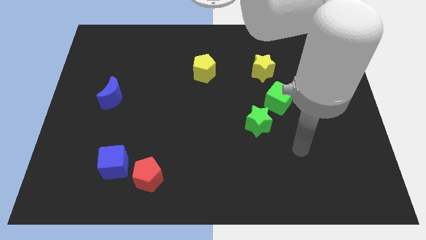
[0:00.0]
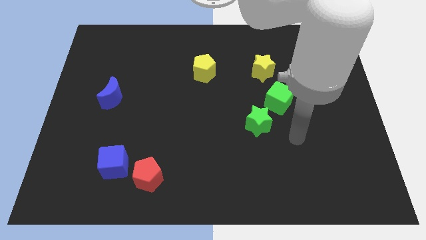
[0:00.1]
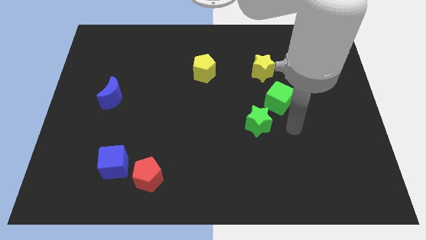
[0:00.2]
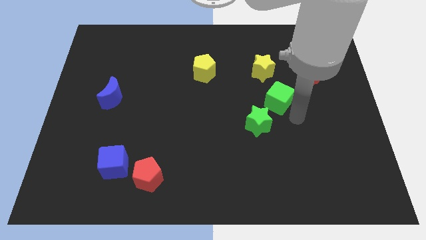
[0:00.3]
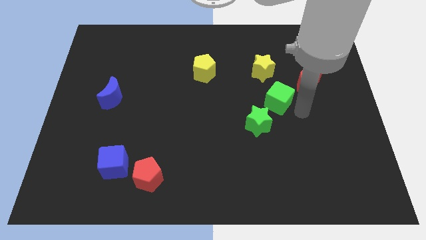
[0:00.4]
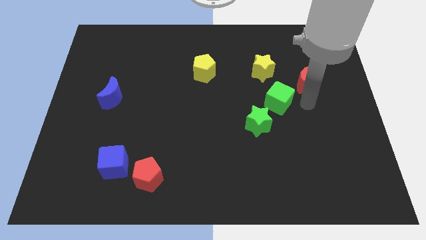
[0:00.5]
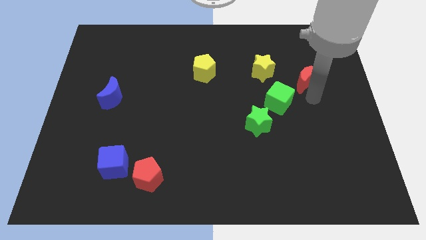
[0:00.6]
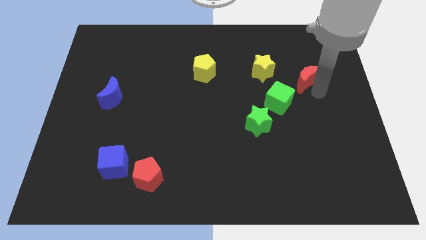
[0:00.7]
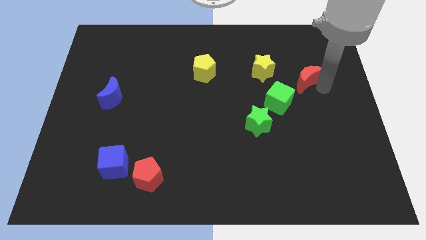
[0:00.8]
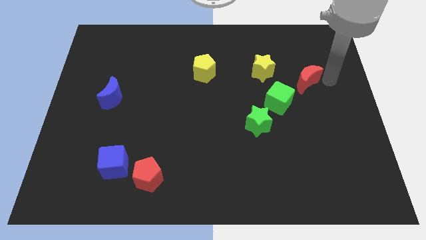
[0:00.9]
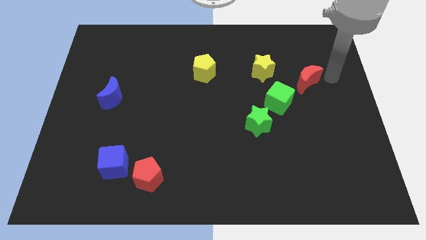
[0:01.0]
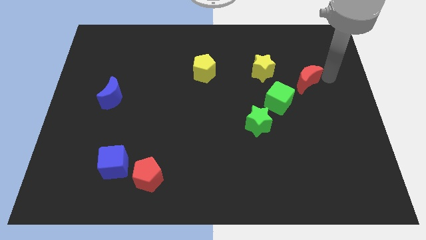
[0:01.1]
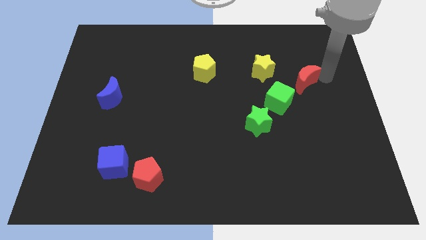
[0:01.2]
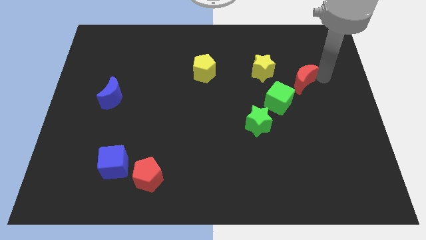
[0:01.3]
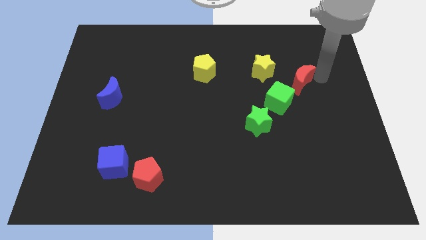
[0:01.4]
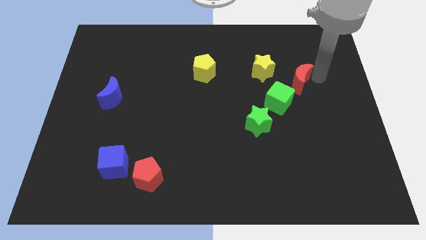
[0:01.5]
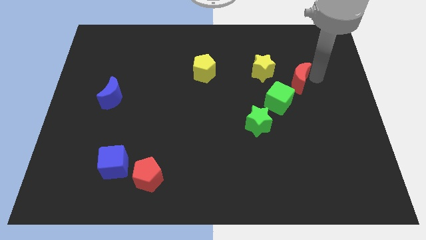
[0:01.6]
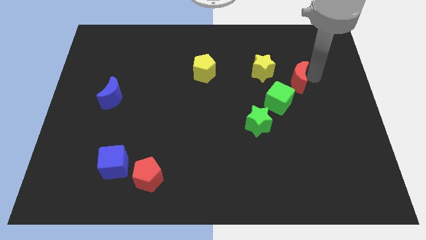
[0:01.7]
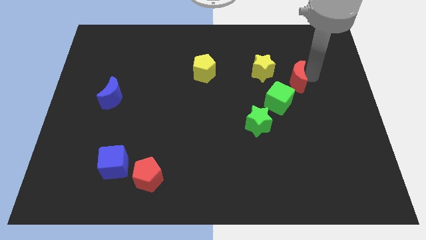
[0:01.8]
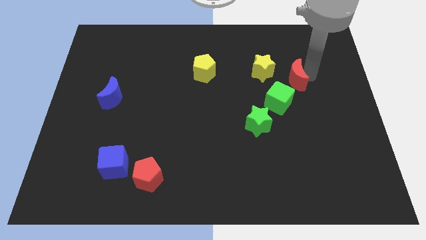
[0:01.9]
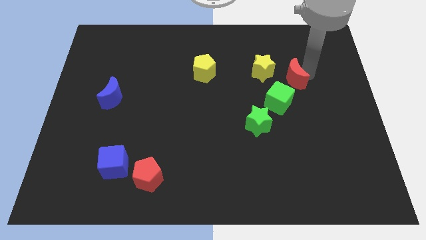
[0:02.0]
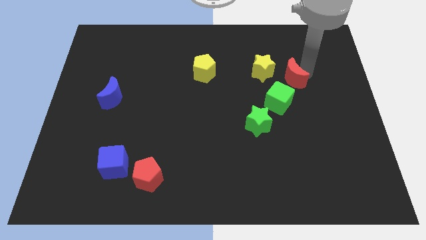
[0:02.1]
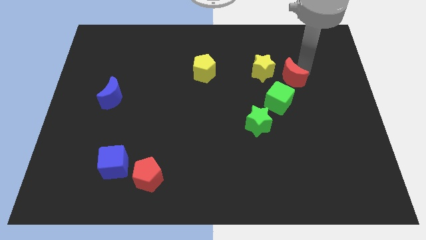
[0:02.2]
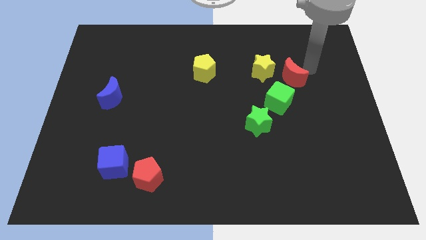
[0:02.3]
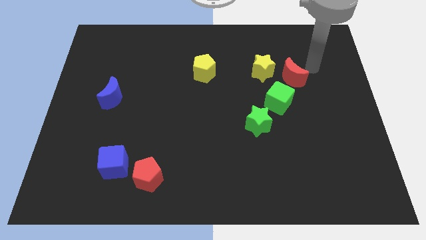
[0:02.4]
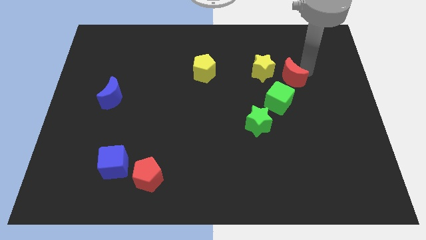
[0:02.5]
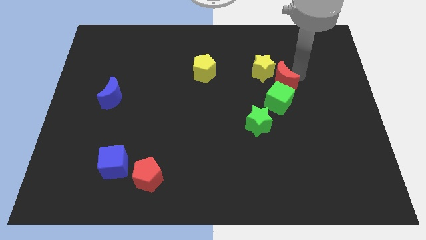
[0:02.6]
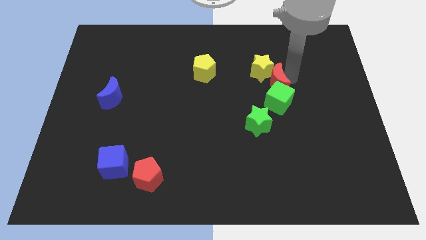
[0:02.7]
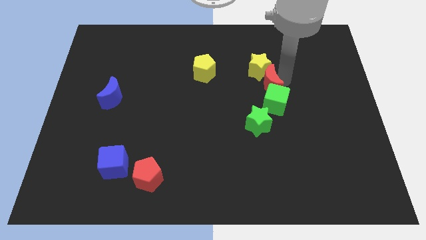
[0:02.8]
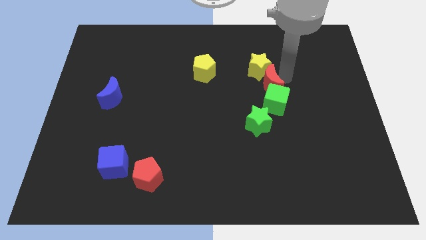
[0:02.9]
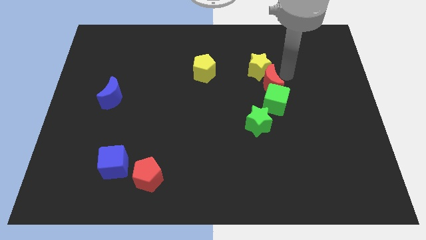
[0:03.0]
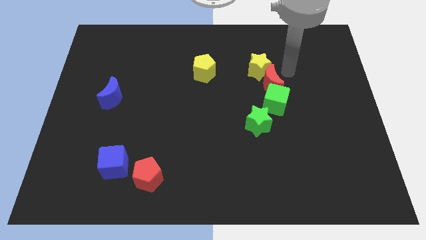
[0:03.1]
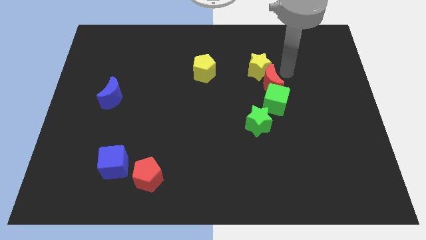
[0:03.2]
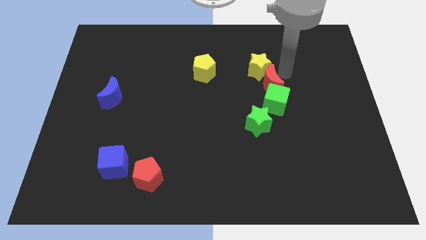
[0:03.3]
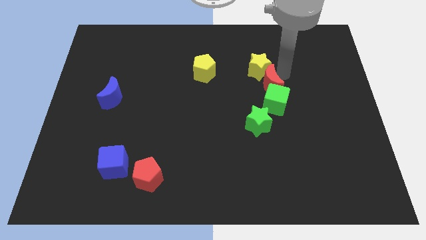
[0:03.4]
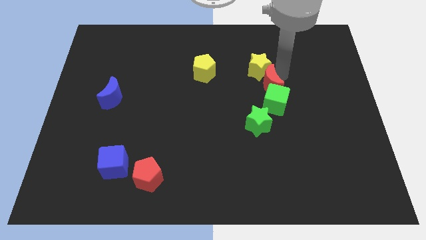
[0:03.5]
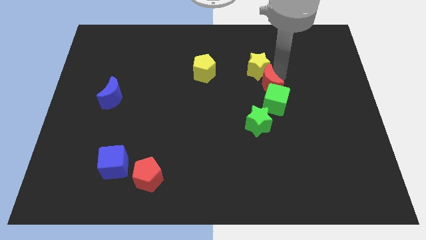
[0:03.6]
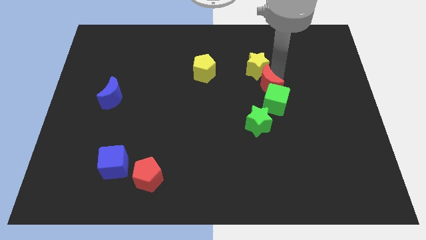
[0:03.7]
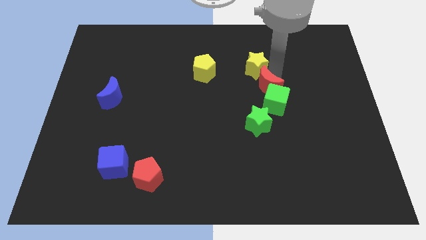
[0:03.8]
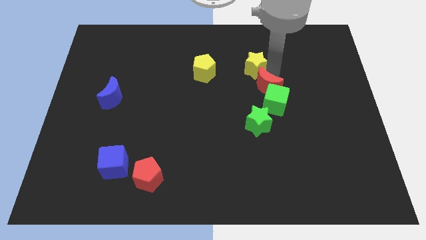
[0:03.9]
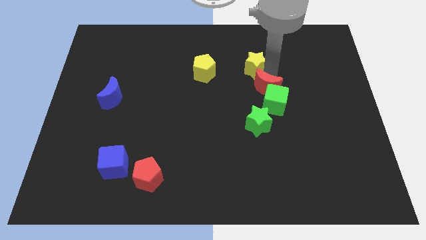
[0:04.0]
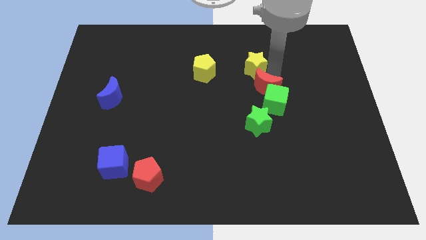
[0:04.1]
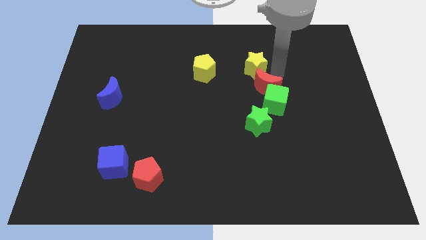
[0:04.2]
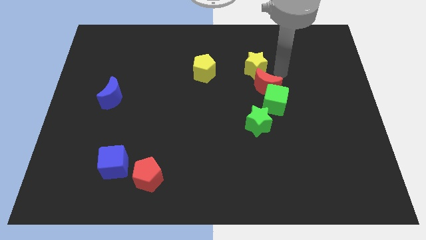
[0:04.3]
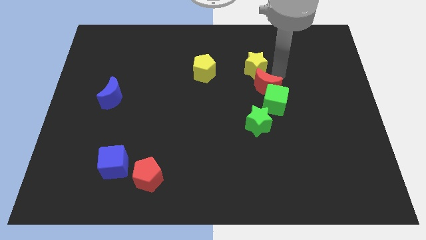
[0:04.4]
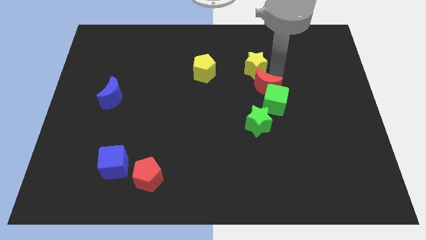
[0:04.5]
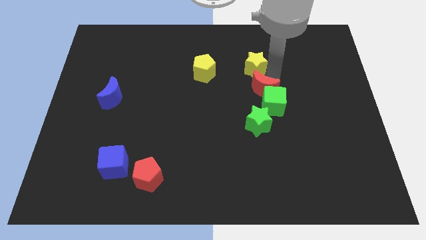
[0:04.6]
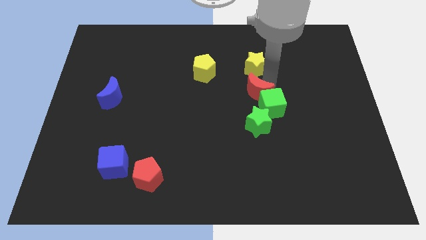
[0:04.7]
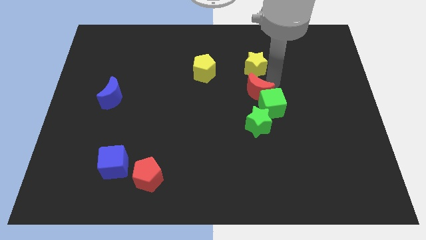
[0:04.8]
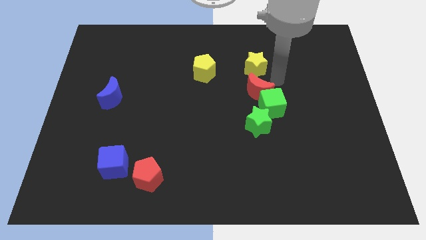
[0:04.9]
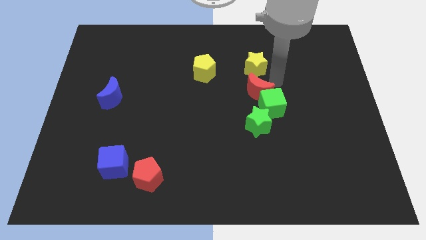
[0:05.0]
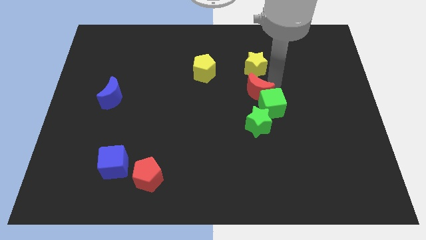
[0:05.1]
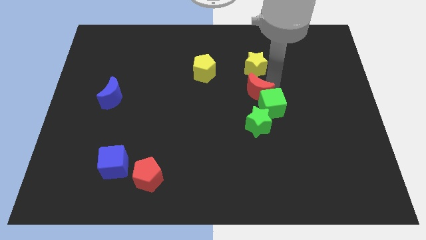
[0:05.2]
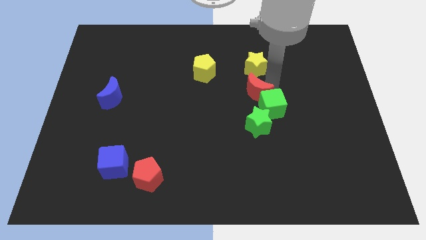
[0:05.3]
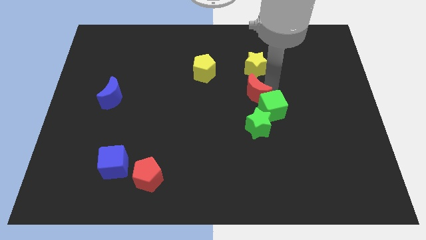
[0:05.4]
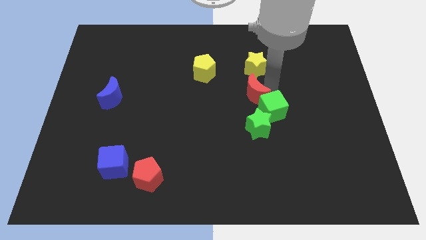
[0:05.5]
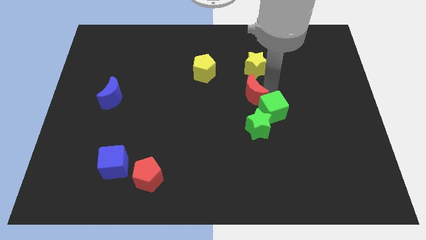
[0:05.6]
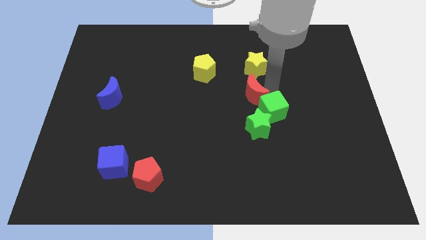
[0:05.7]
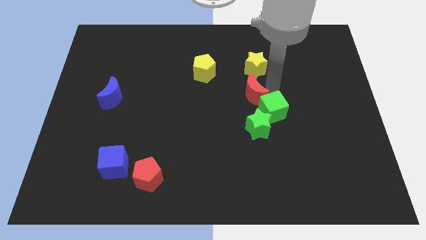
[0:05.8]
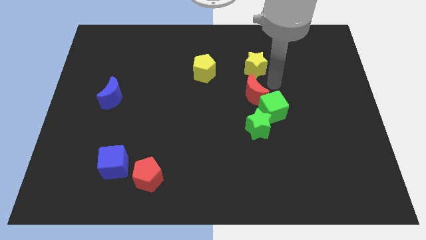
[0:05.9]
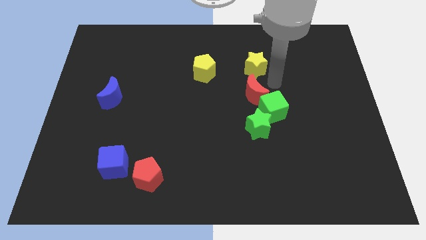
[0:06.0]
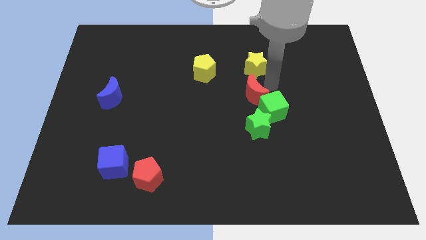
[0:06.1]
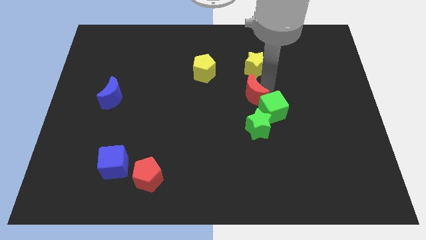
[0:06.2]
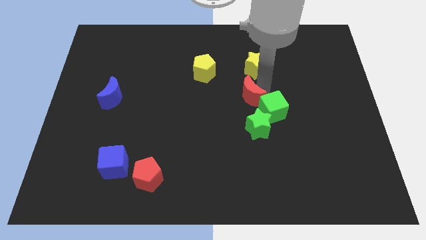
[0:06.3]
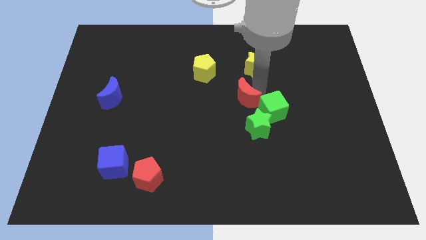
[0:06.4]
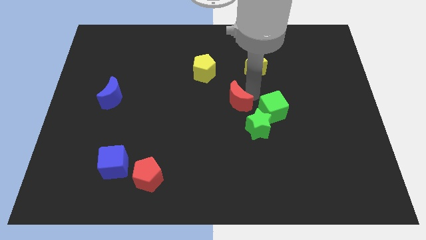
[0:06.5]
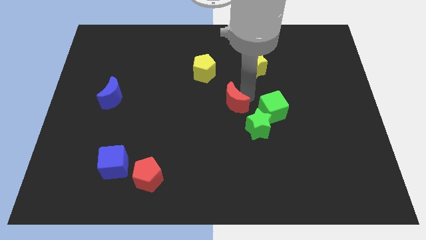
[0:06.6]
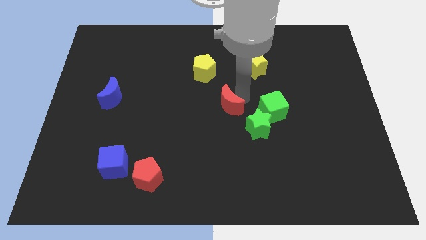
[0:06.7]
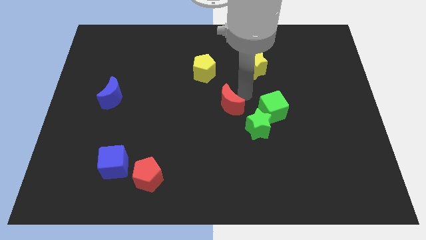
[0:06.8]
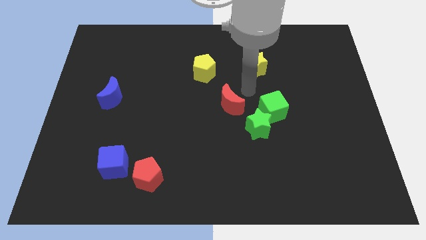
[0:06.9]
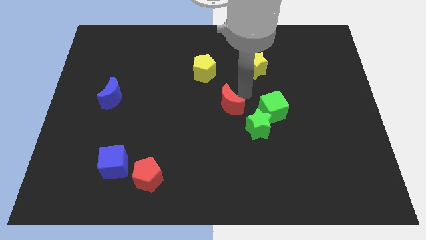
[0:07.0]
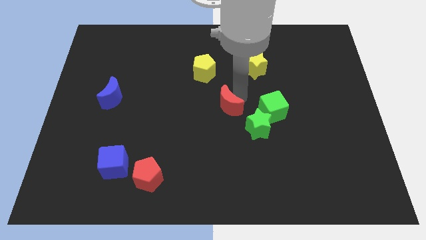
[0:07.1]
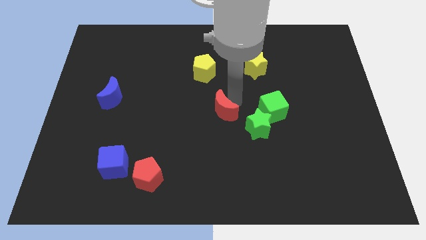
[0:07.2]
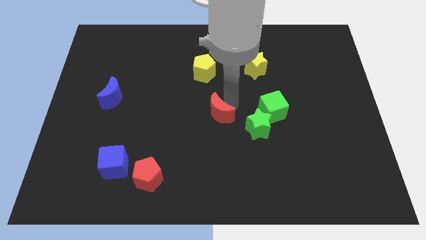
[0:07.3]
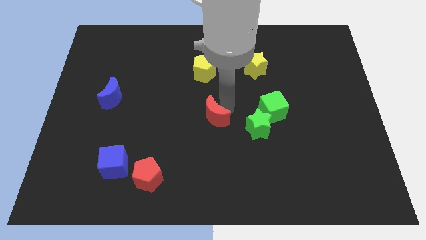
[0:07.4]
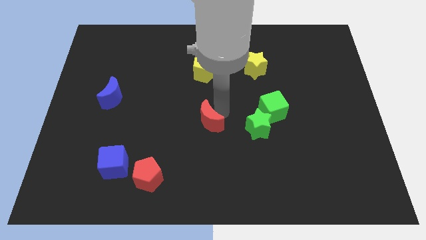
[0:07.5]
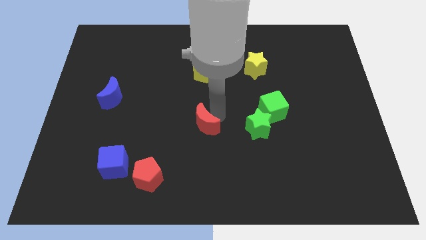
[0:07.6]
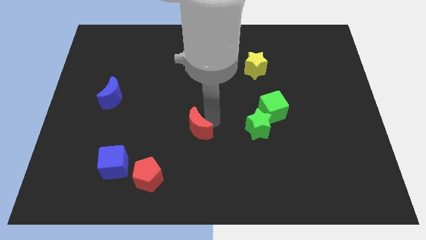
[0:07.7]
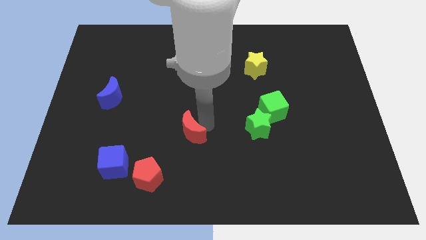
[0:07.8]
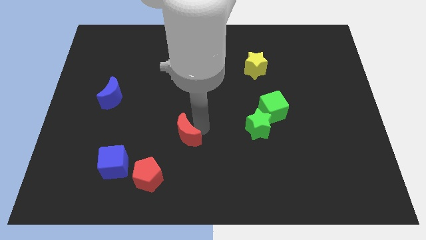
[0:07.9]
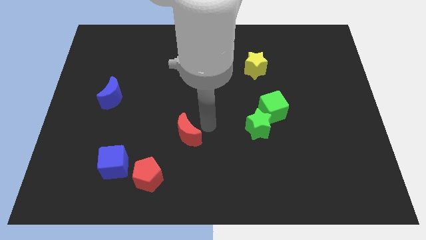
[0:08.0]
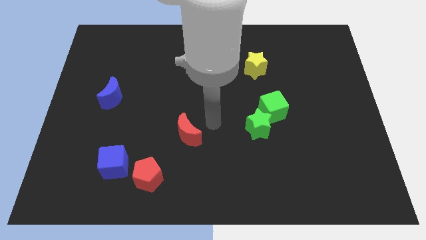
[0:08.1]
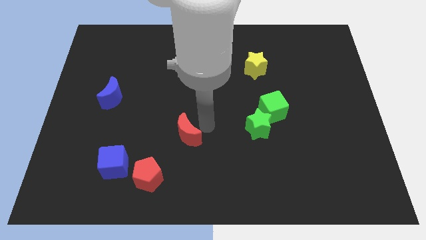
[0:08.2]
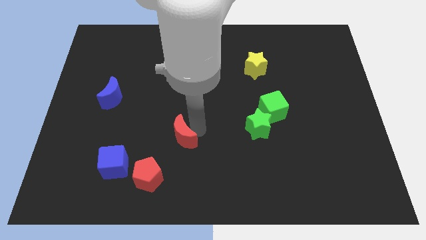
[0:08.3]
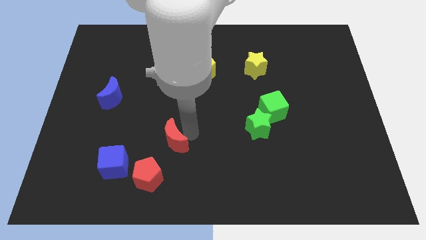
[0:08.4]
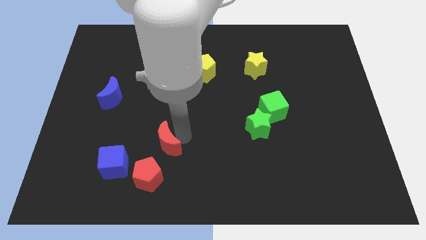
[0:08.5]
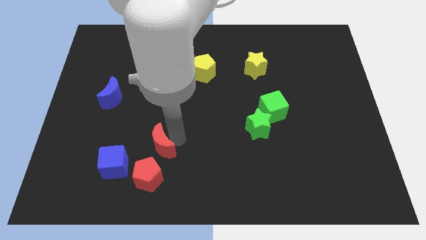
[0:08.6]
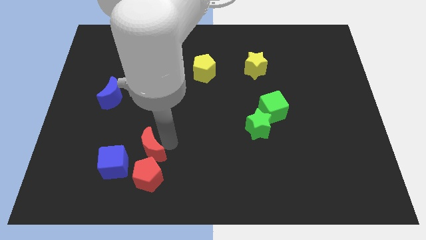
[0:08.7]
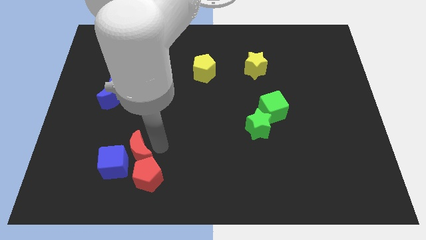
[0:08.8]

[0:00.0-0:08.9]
move the red moon close to the blue cube
